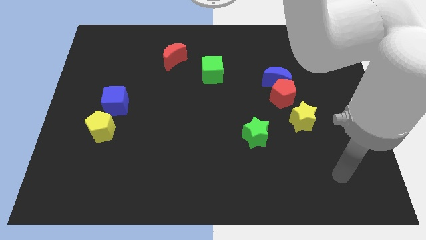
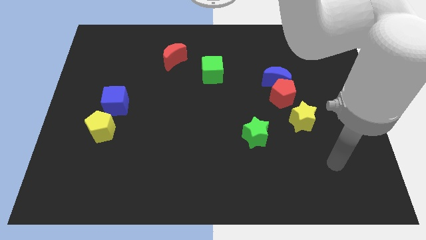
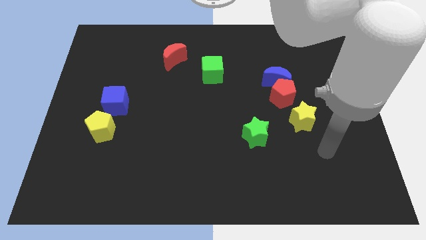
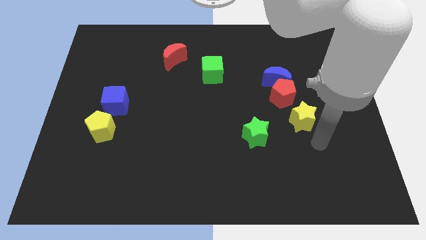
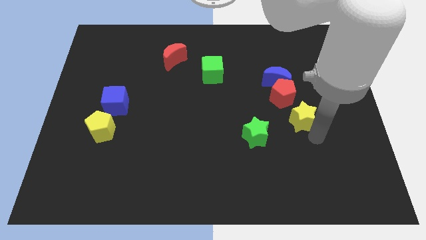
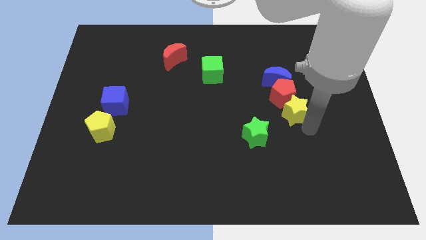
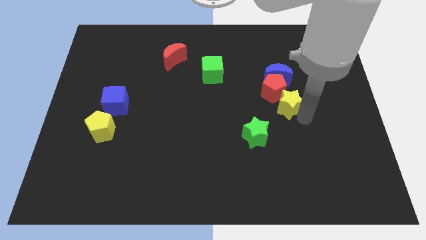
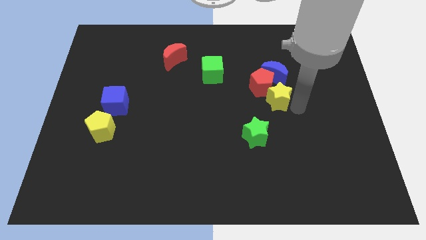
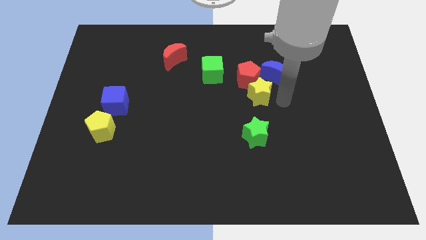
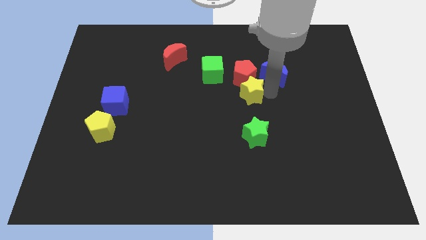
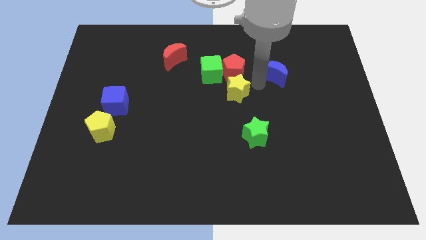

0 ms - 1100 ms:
move the blue moon away from the red pentagon

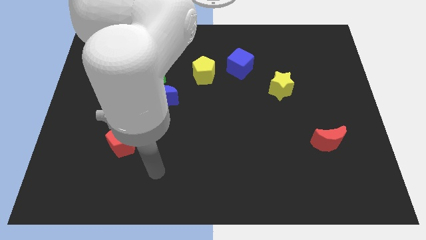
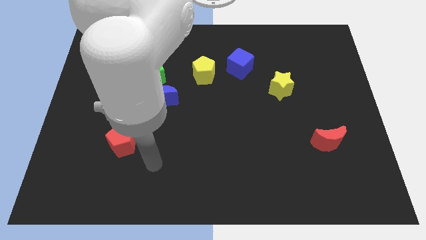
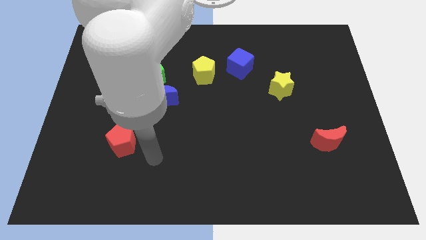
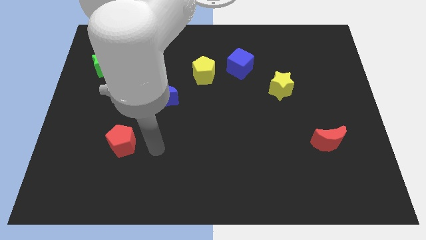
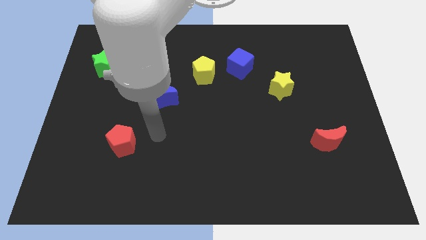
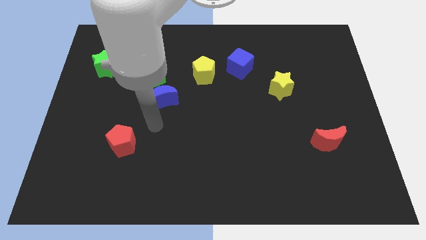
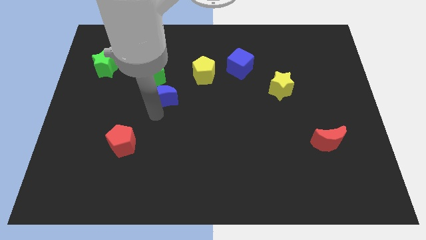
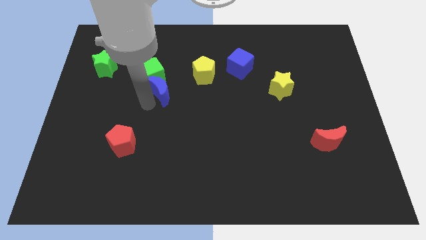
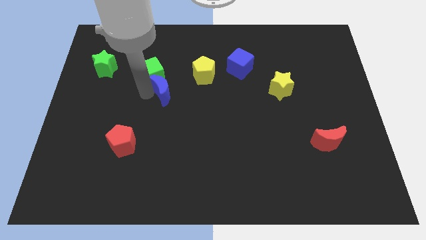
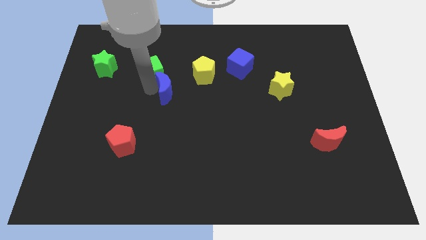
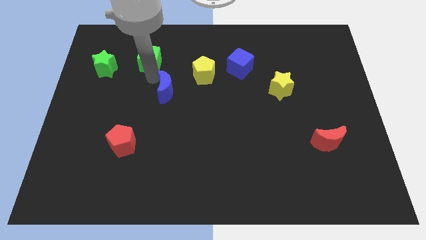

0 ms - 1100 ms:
separate the blue moon from the green cube

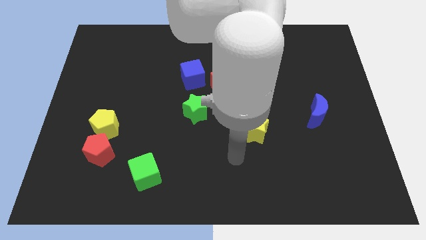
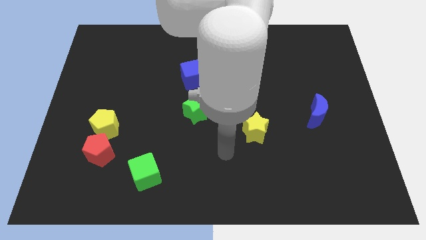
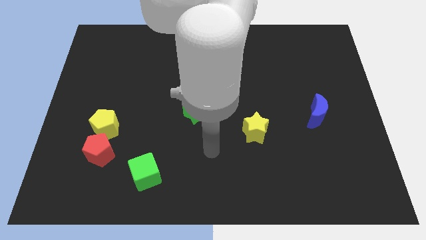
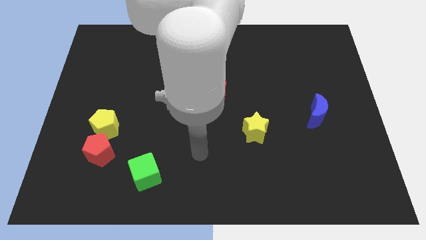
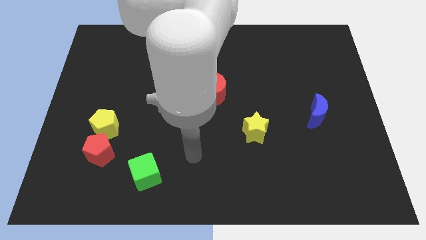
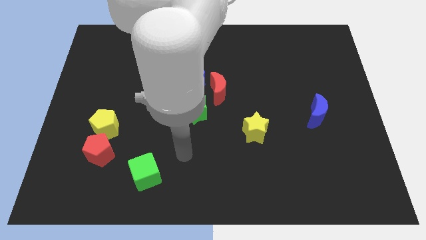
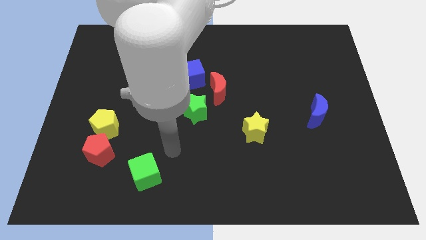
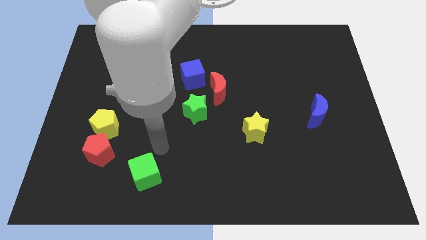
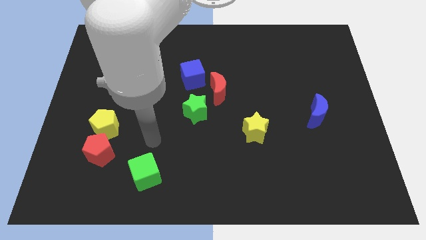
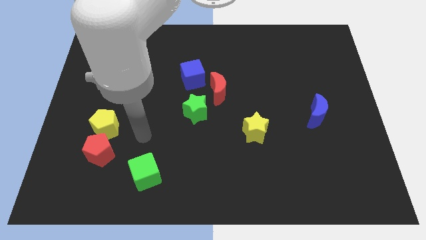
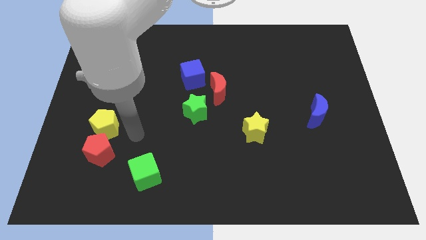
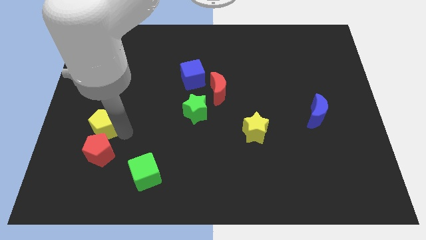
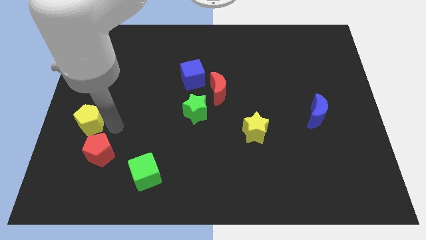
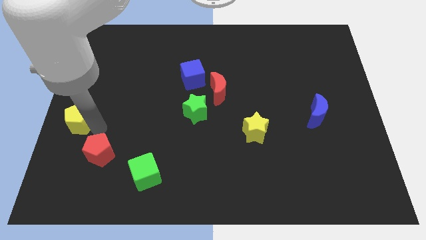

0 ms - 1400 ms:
pull the red pentagon apart from the yellow pentagon

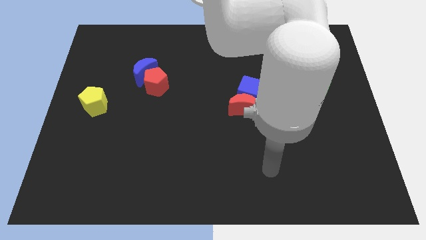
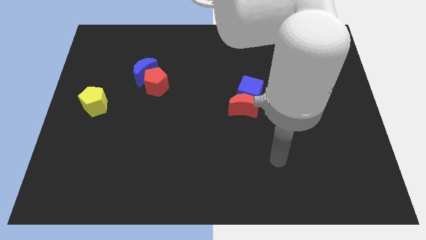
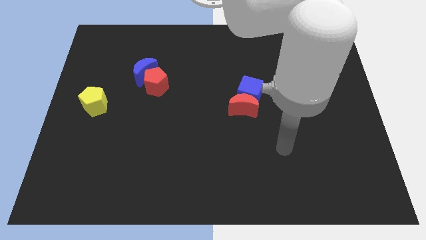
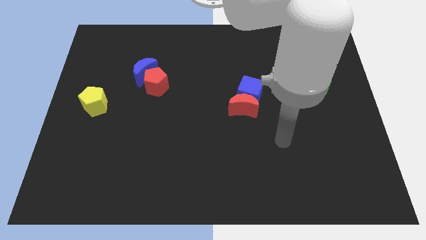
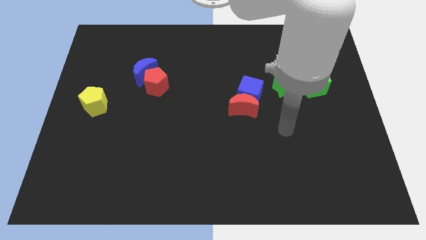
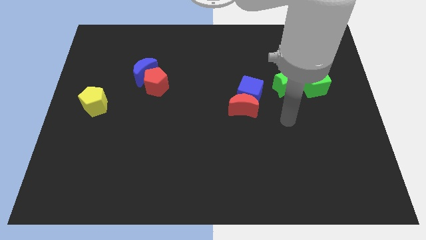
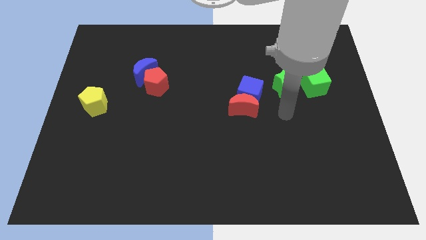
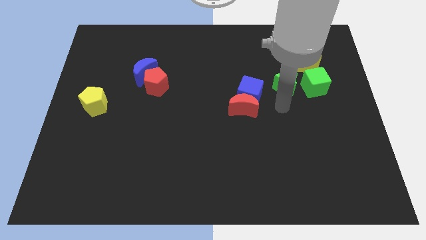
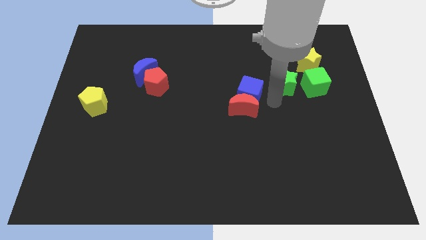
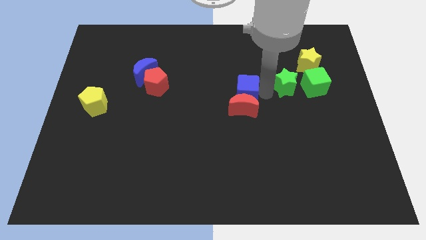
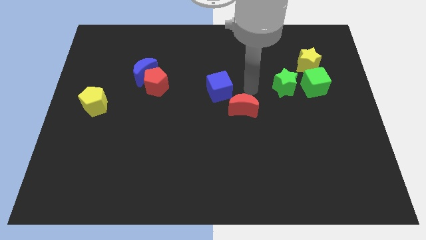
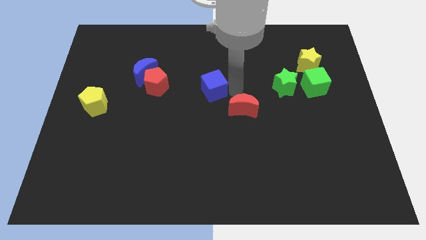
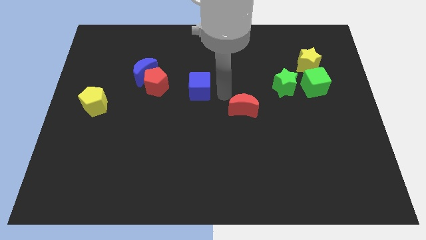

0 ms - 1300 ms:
separate the red moon from the blue cube

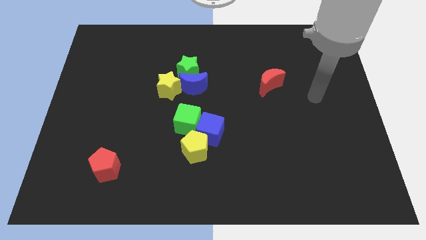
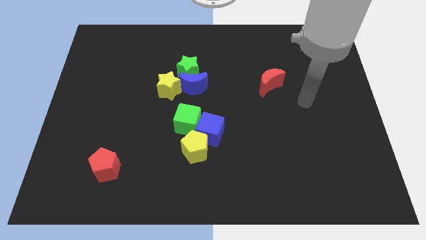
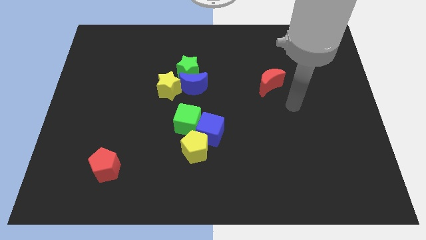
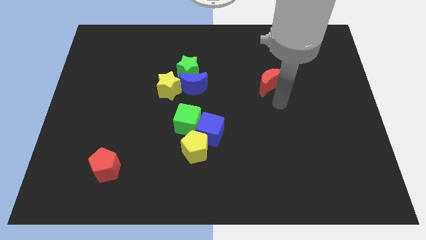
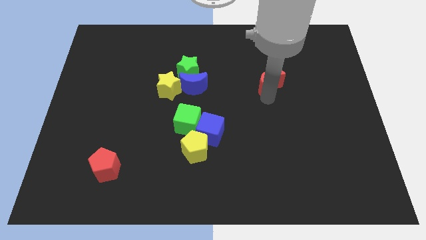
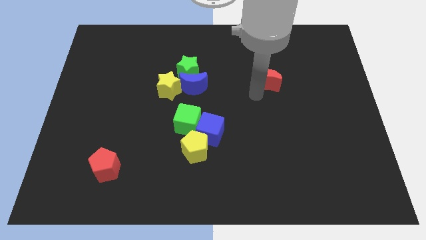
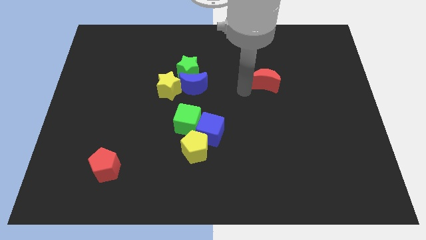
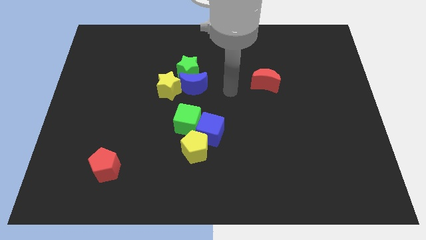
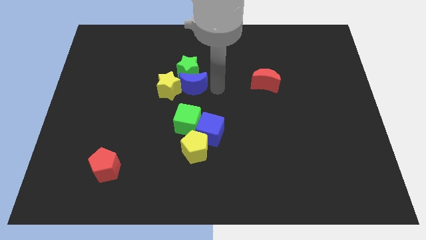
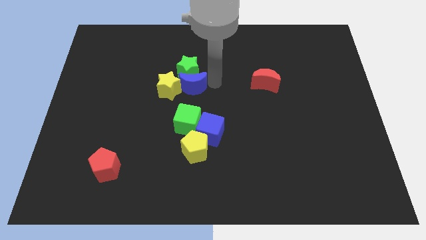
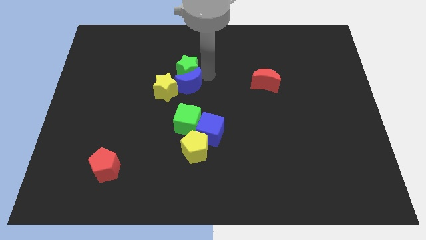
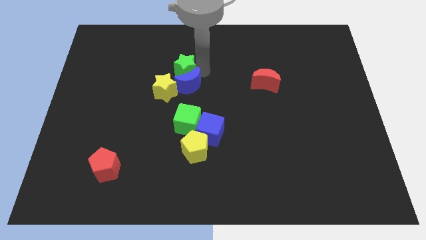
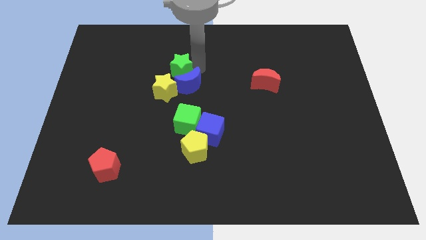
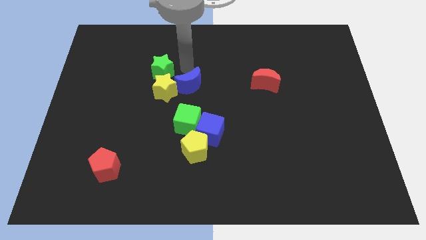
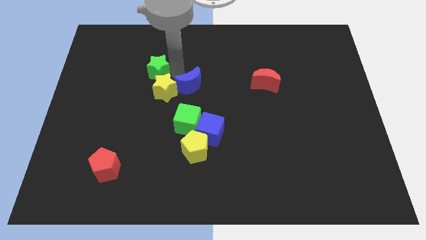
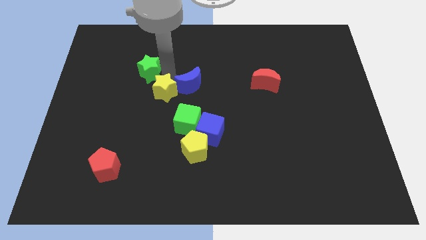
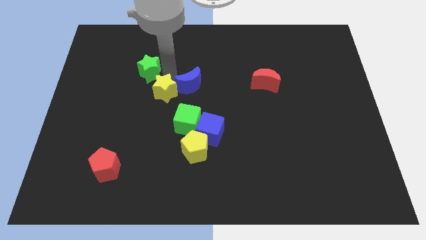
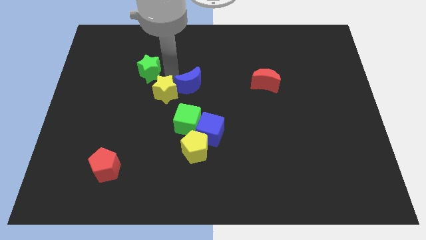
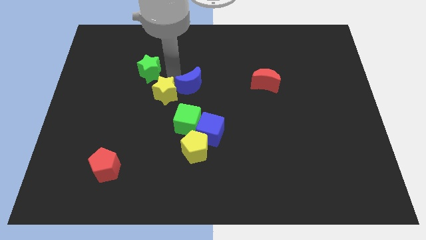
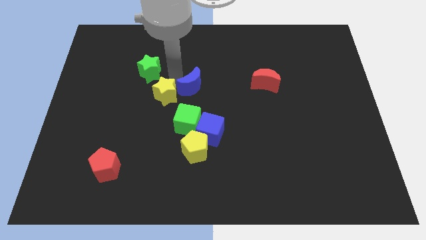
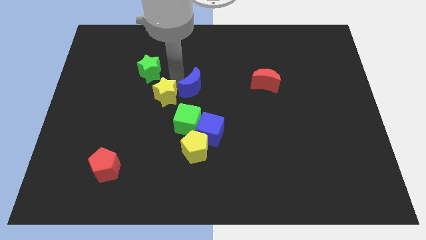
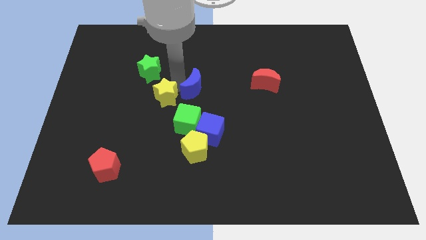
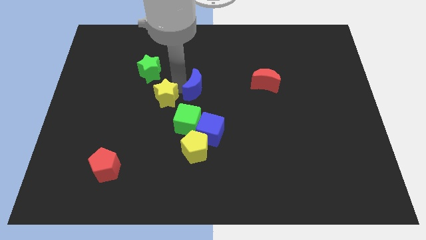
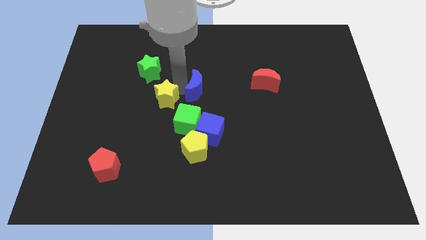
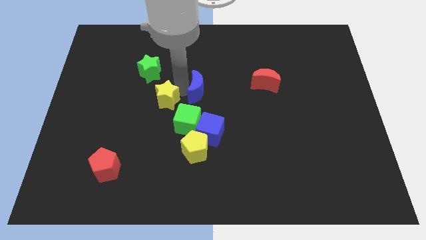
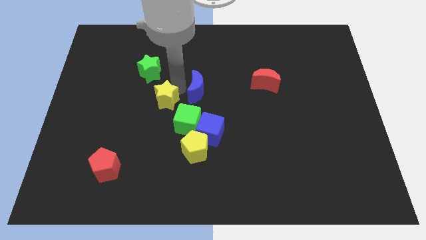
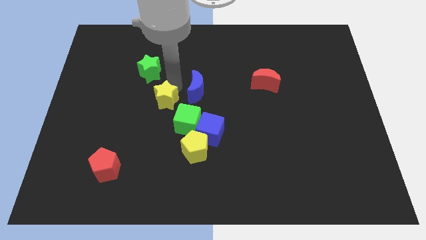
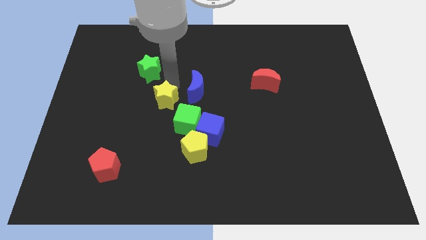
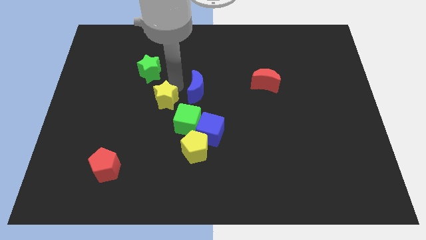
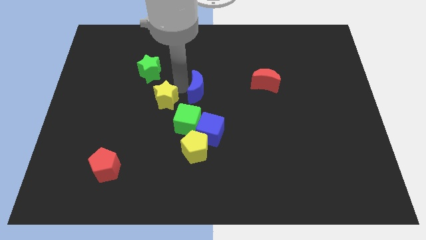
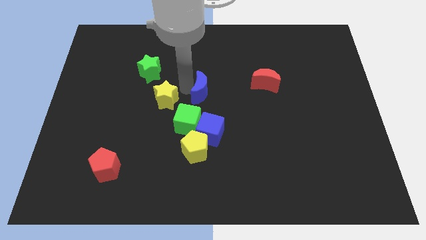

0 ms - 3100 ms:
move the blue moon away from the green star and yellow star

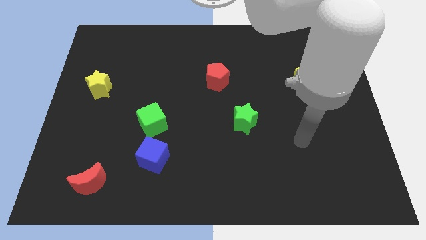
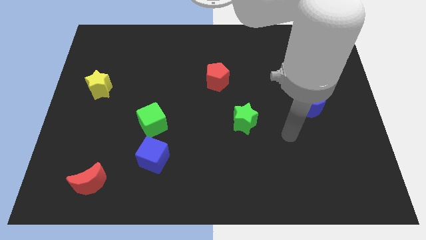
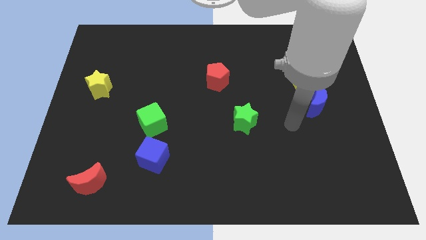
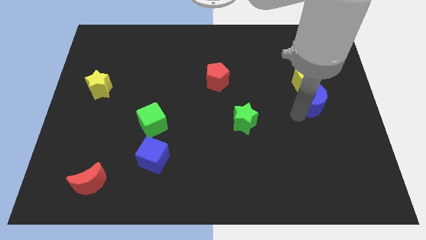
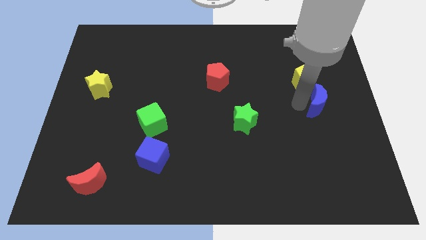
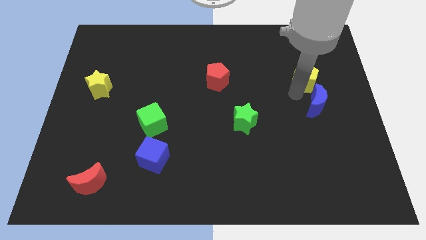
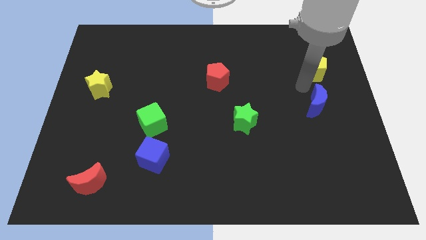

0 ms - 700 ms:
move the blue moon away from the yellow pentagon

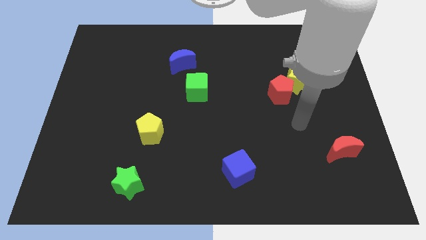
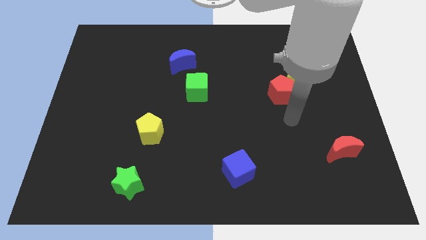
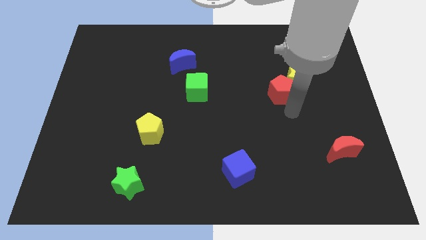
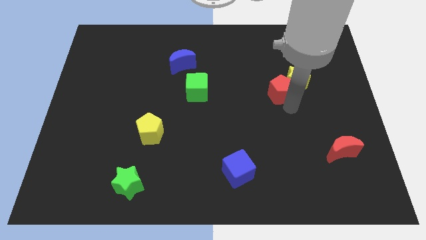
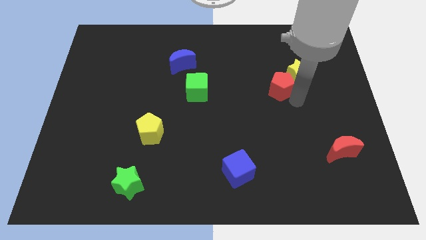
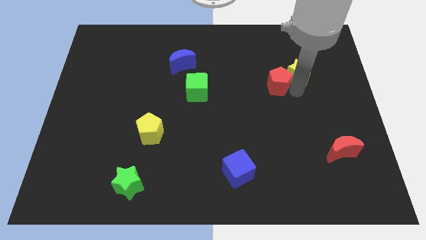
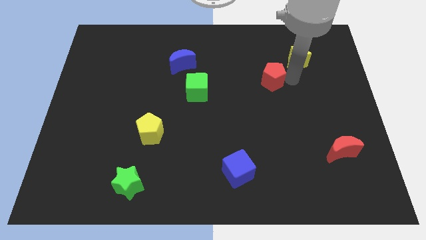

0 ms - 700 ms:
move the red pentagon away from the yellow star
